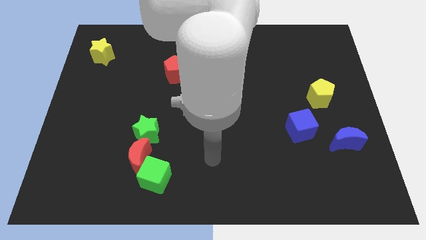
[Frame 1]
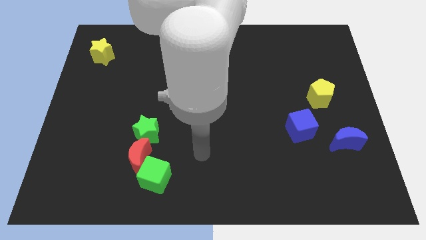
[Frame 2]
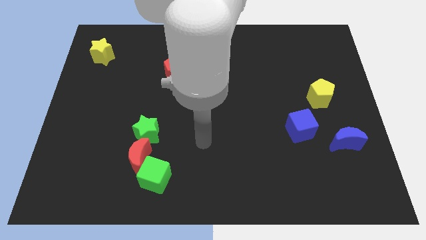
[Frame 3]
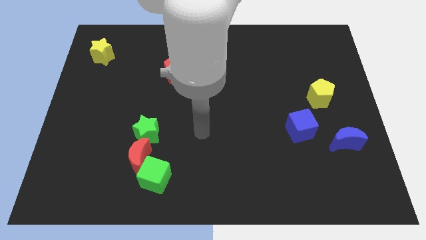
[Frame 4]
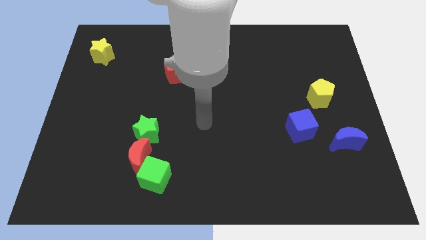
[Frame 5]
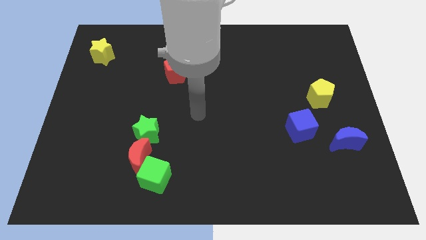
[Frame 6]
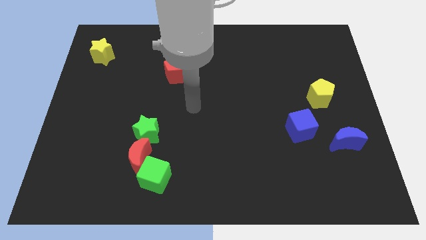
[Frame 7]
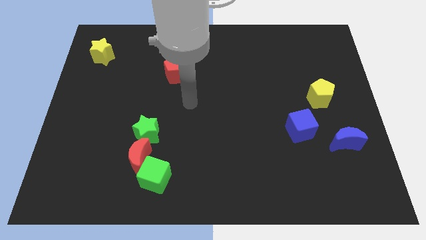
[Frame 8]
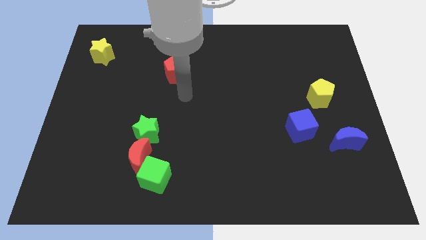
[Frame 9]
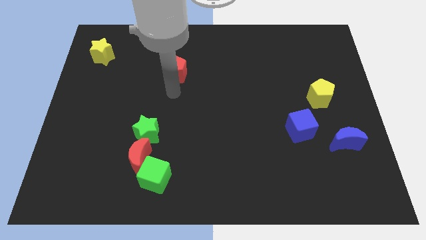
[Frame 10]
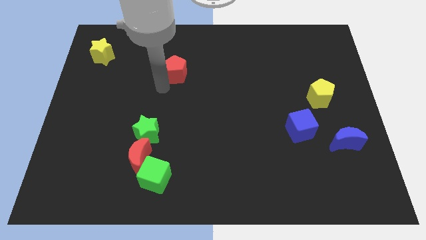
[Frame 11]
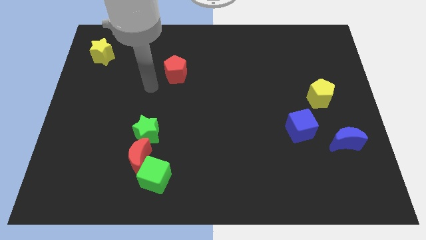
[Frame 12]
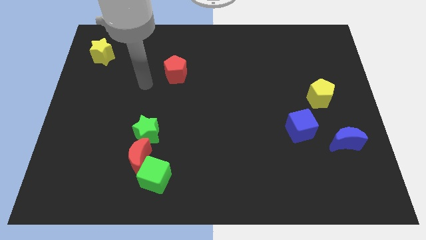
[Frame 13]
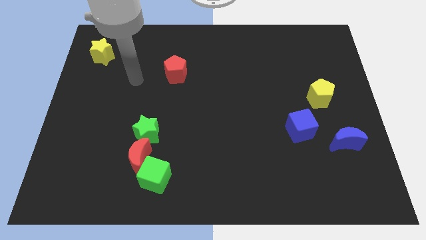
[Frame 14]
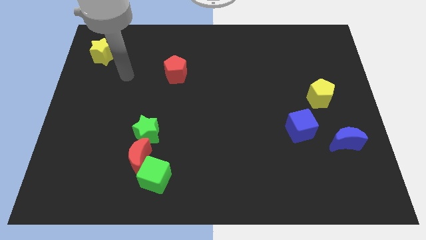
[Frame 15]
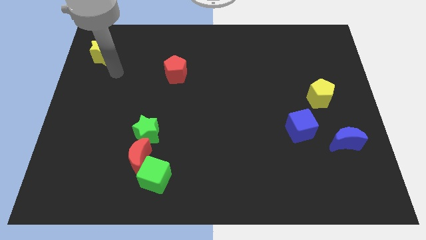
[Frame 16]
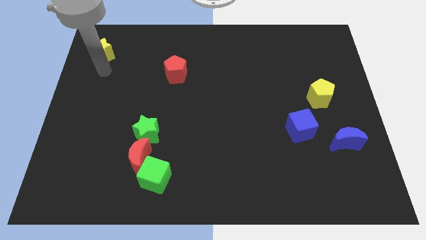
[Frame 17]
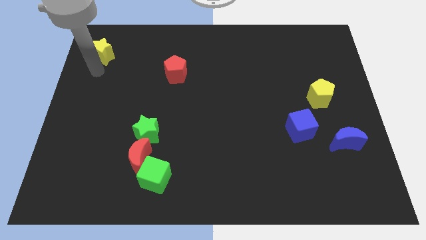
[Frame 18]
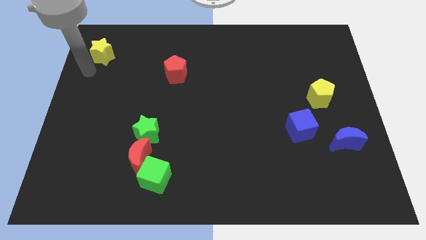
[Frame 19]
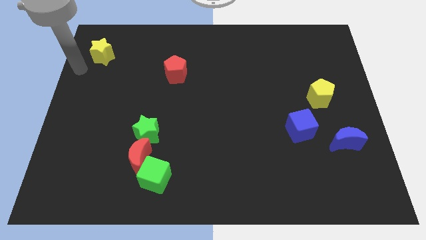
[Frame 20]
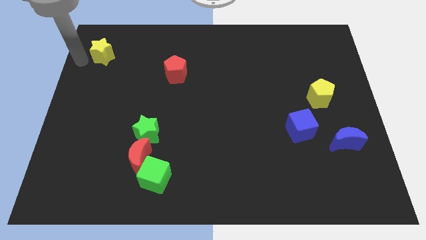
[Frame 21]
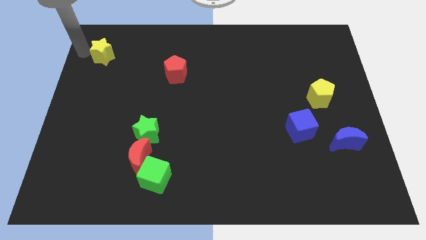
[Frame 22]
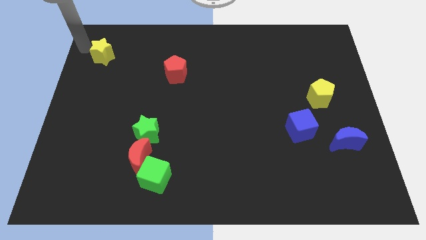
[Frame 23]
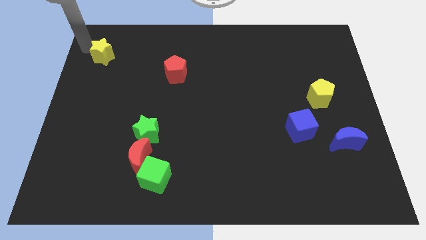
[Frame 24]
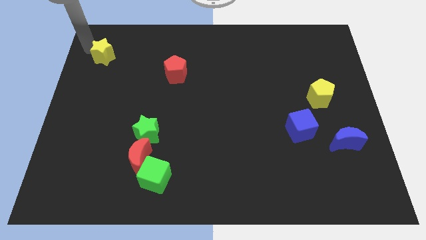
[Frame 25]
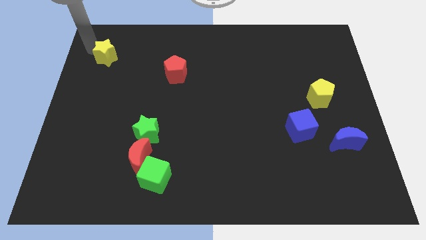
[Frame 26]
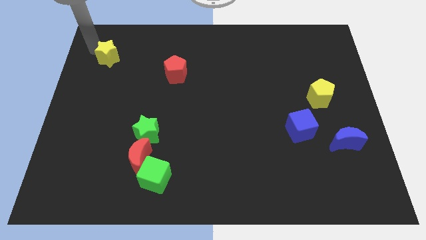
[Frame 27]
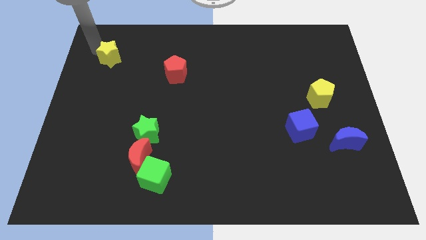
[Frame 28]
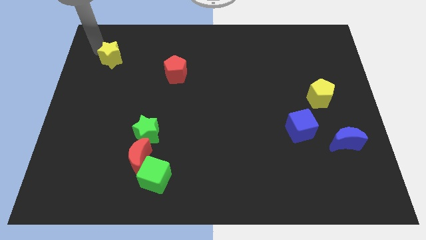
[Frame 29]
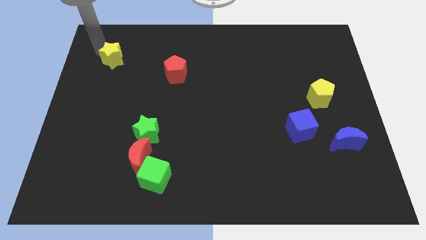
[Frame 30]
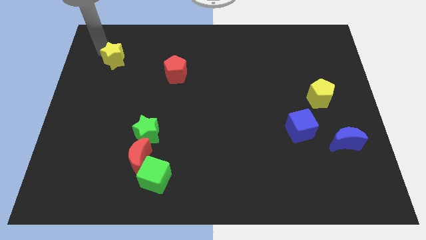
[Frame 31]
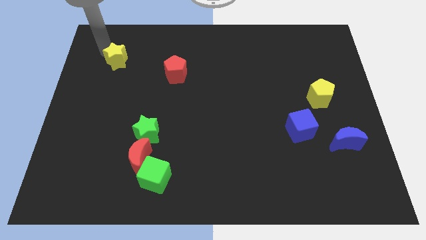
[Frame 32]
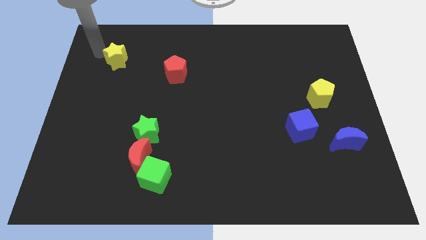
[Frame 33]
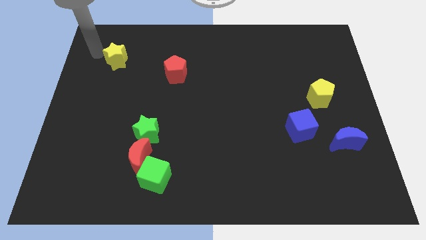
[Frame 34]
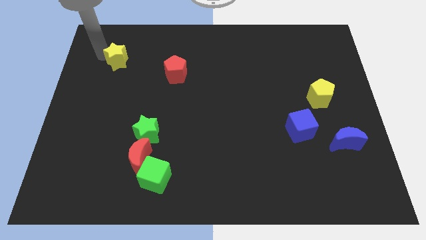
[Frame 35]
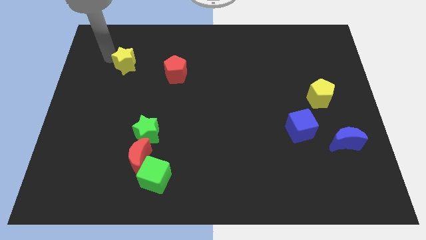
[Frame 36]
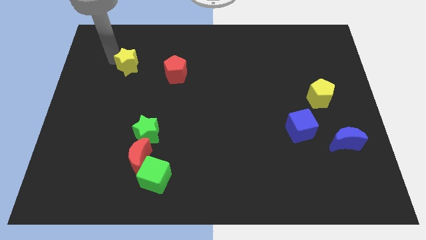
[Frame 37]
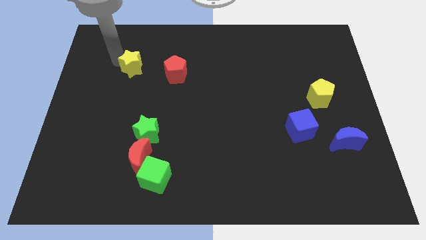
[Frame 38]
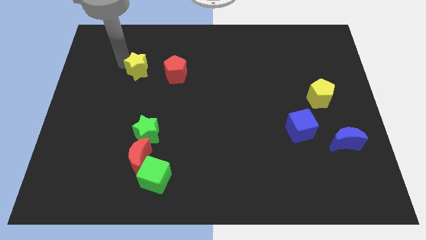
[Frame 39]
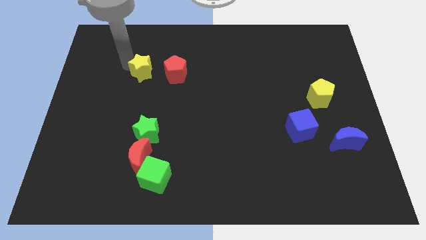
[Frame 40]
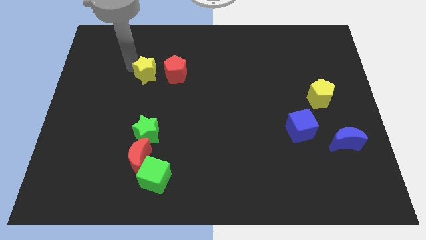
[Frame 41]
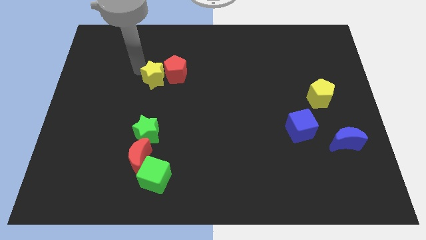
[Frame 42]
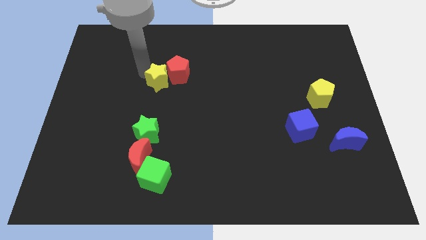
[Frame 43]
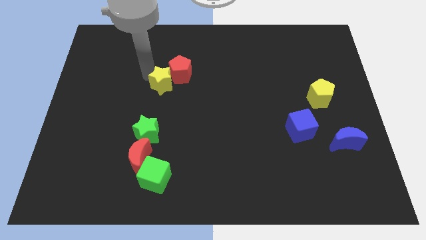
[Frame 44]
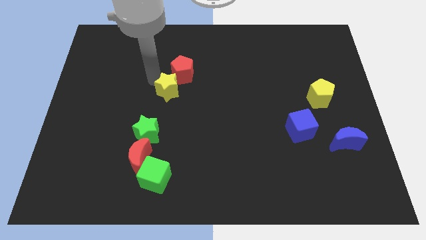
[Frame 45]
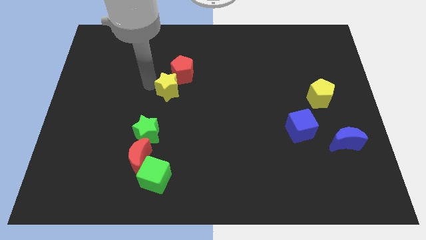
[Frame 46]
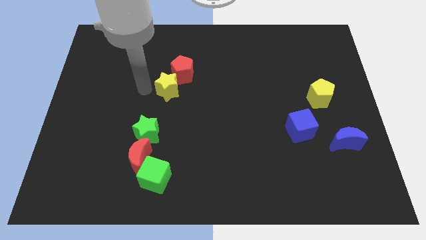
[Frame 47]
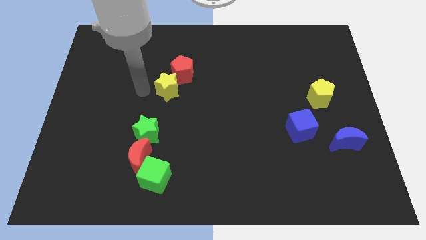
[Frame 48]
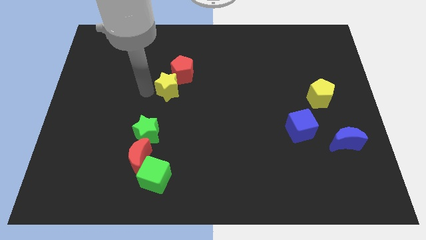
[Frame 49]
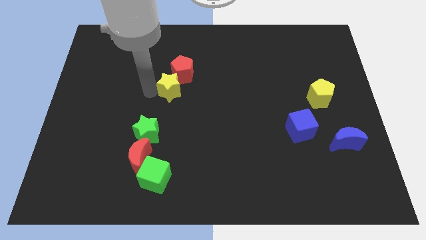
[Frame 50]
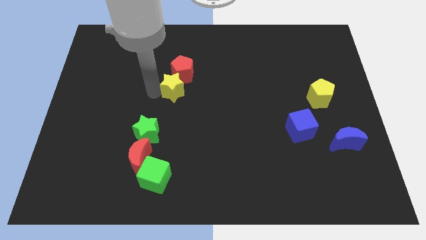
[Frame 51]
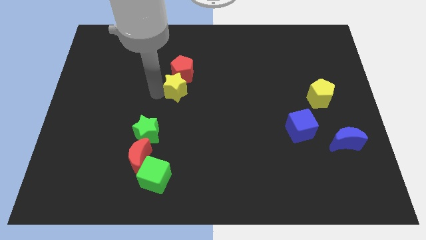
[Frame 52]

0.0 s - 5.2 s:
move the yellow star to the bottom right of the red pentagon

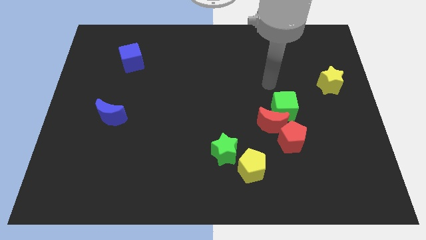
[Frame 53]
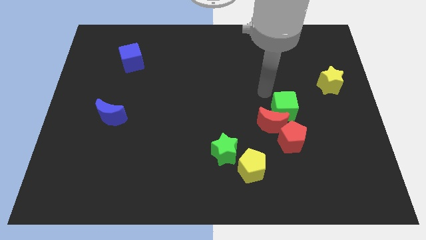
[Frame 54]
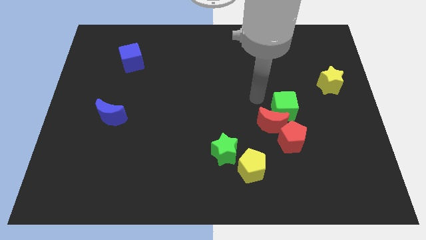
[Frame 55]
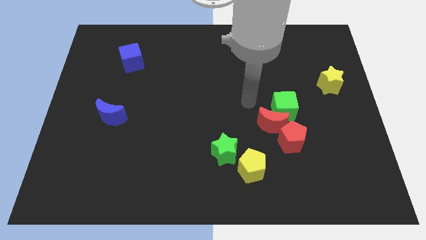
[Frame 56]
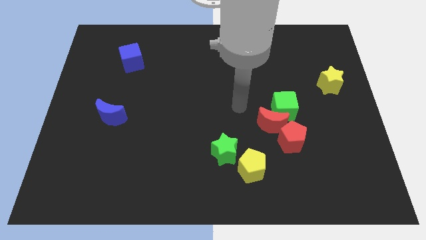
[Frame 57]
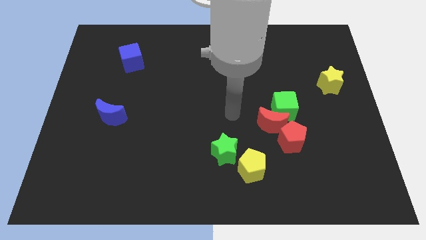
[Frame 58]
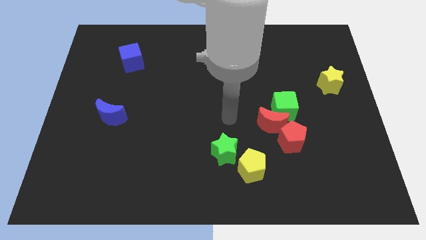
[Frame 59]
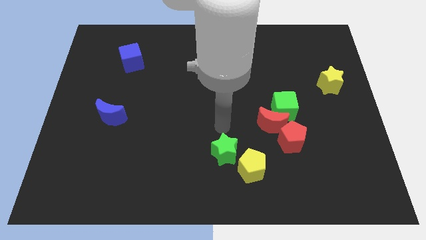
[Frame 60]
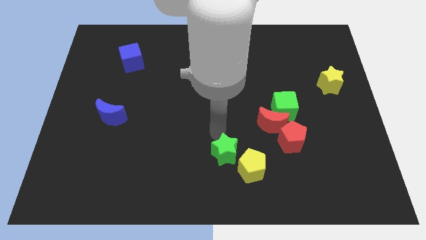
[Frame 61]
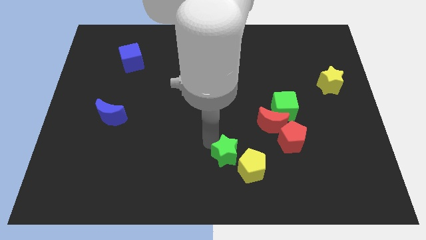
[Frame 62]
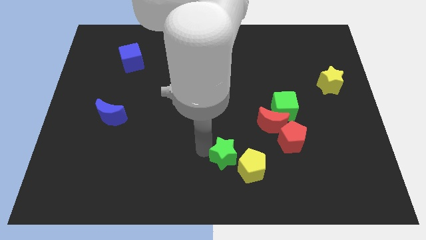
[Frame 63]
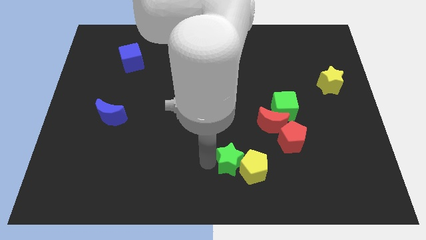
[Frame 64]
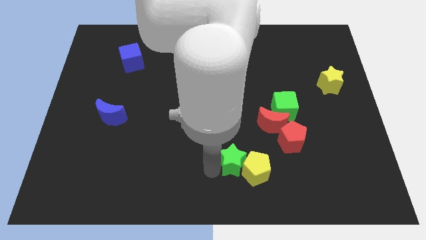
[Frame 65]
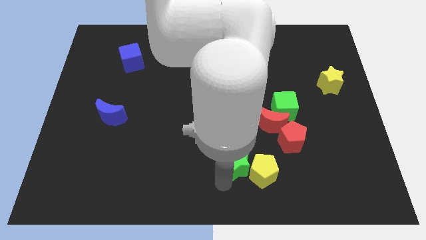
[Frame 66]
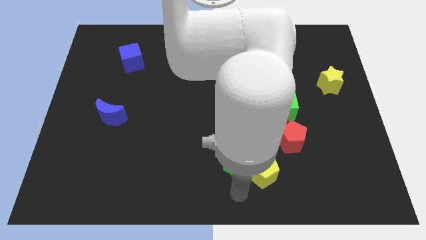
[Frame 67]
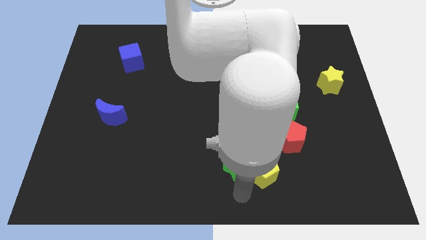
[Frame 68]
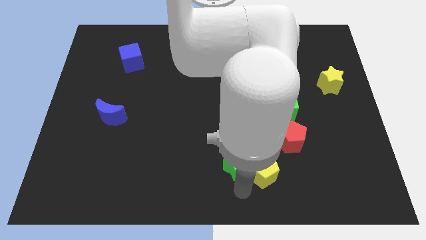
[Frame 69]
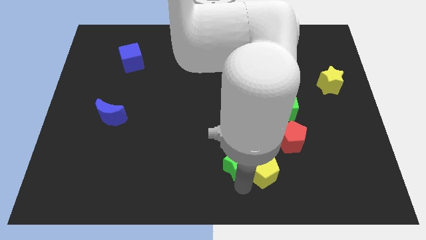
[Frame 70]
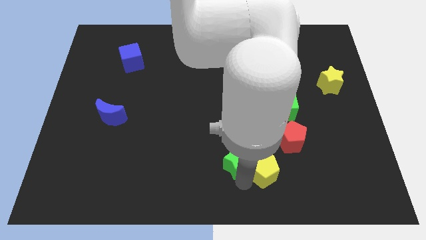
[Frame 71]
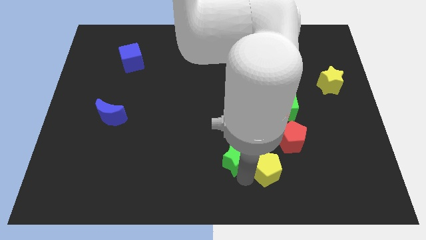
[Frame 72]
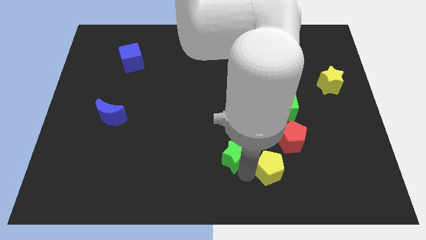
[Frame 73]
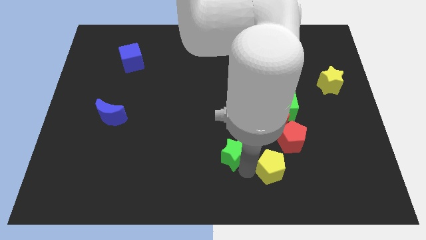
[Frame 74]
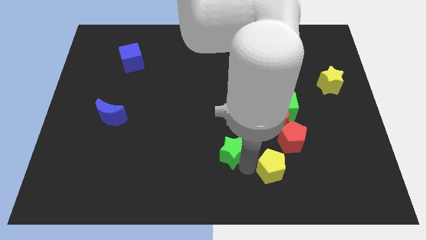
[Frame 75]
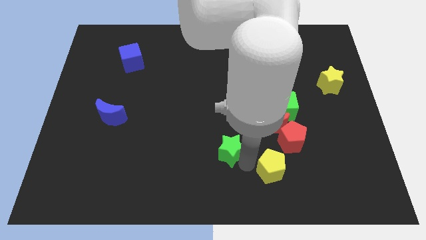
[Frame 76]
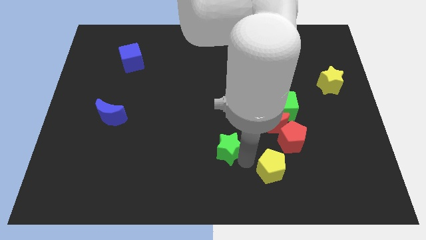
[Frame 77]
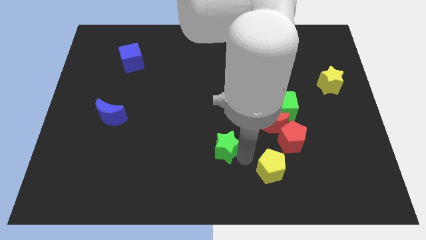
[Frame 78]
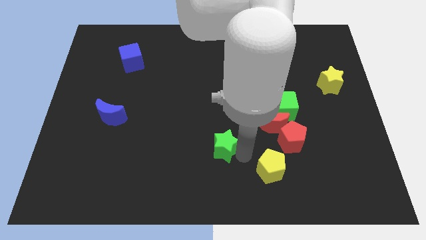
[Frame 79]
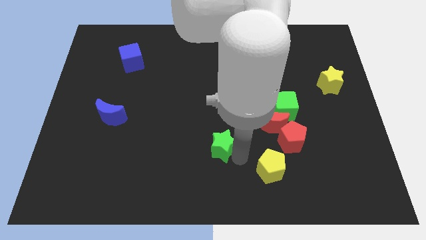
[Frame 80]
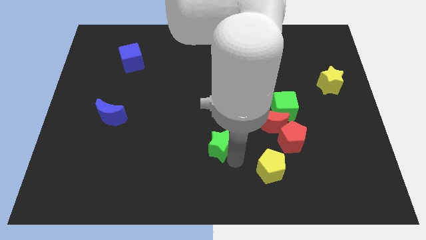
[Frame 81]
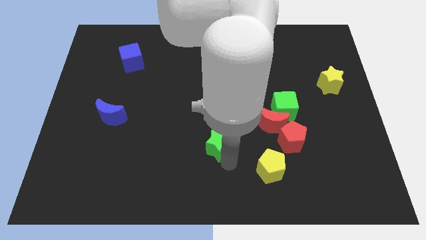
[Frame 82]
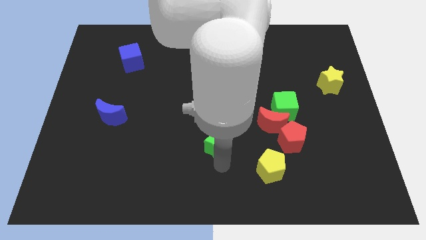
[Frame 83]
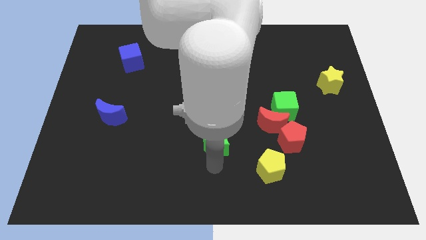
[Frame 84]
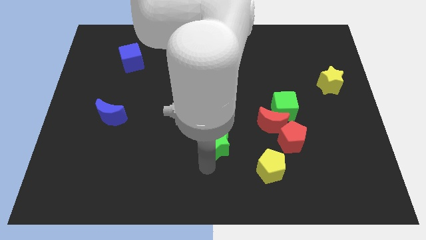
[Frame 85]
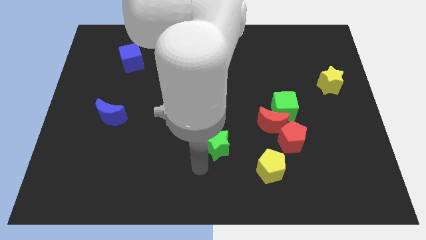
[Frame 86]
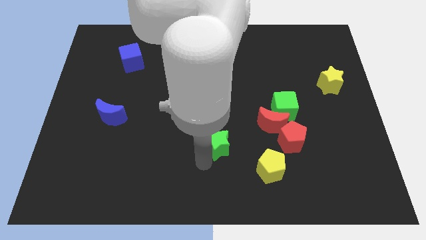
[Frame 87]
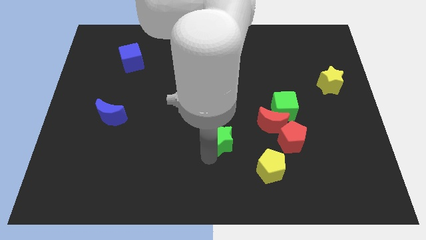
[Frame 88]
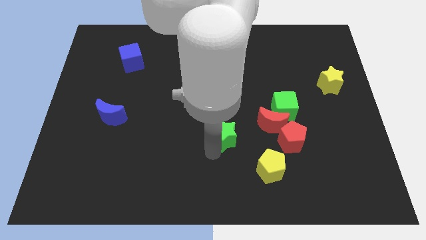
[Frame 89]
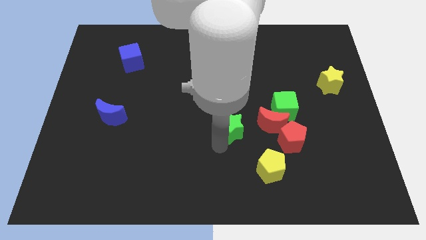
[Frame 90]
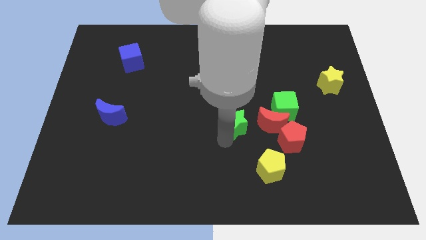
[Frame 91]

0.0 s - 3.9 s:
move the green star just left of the green cube
